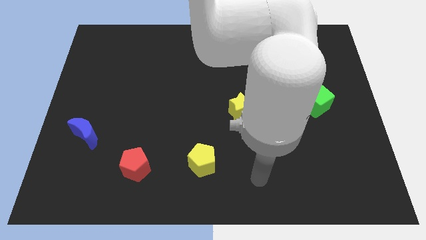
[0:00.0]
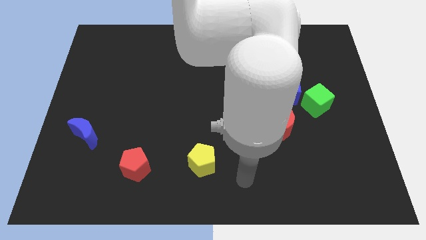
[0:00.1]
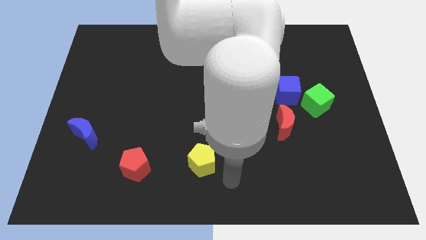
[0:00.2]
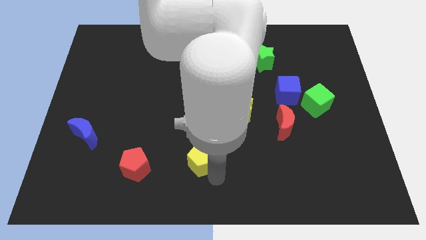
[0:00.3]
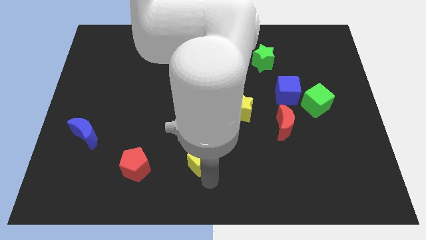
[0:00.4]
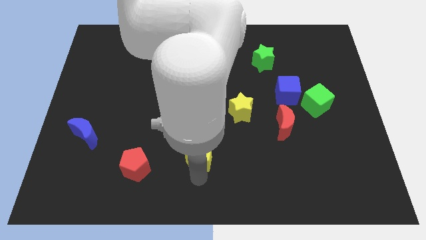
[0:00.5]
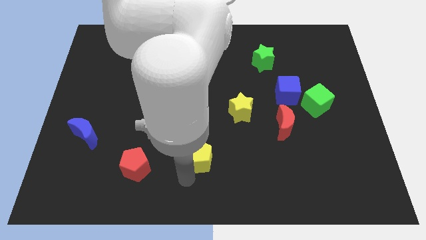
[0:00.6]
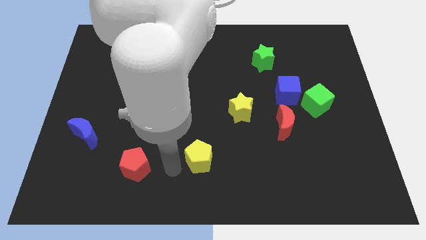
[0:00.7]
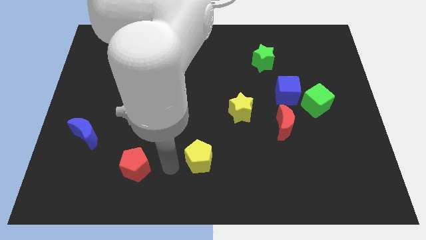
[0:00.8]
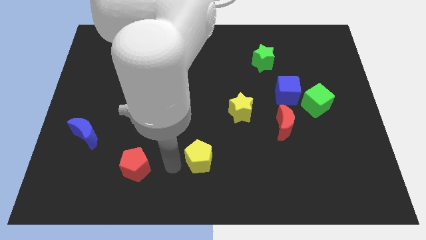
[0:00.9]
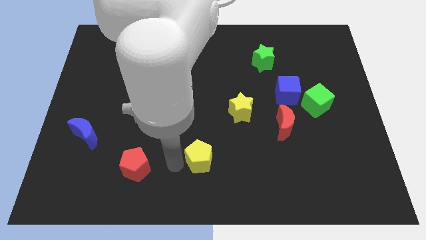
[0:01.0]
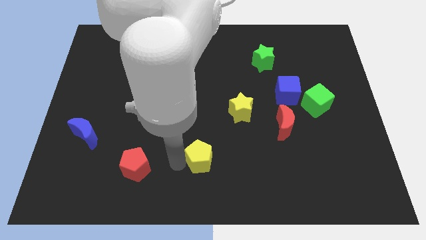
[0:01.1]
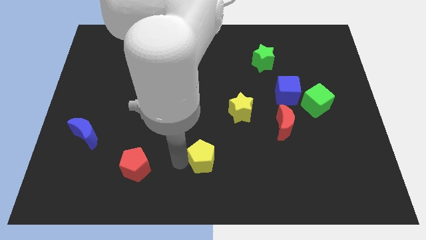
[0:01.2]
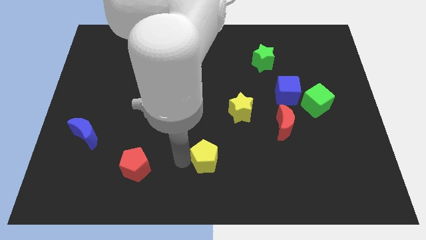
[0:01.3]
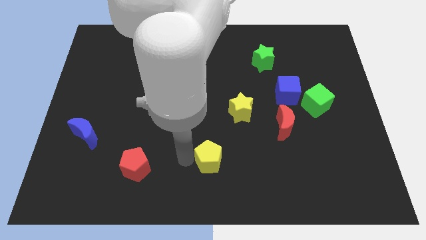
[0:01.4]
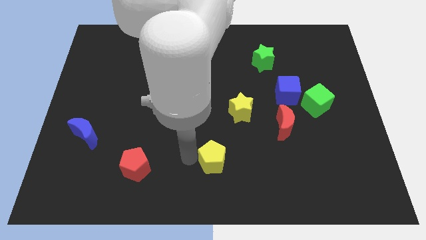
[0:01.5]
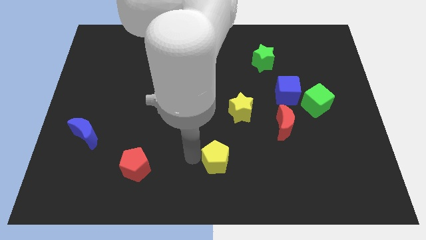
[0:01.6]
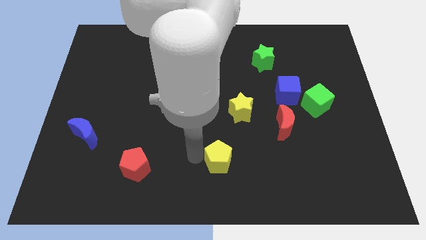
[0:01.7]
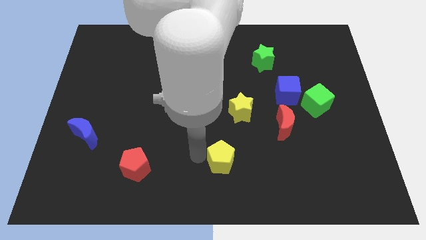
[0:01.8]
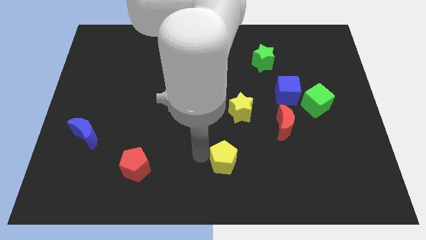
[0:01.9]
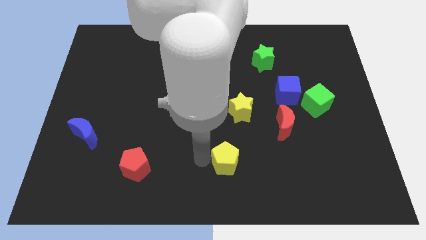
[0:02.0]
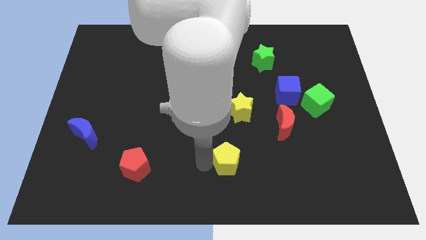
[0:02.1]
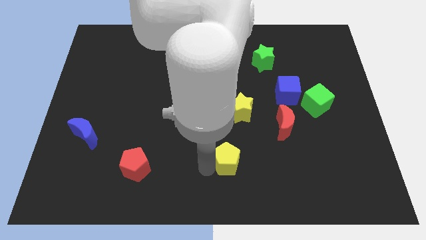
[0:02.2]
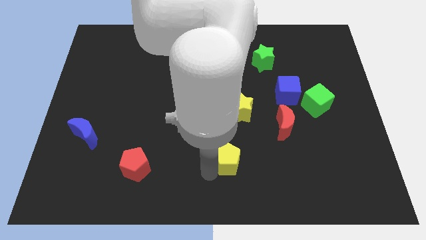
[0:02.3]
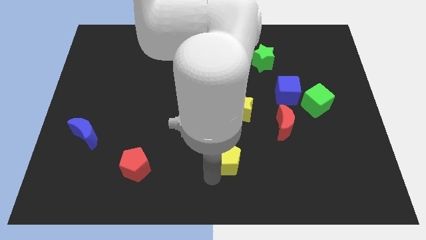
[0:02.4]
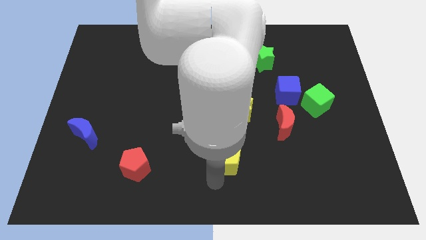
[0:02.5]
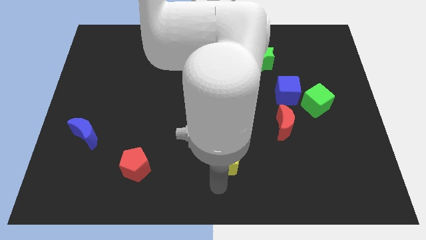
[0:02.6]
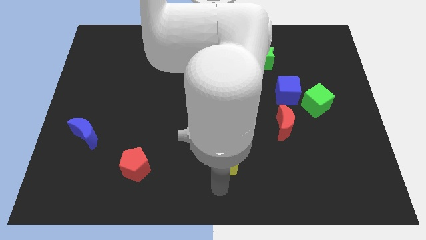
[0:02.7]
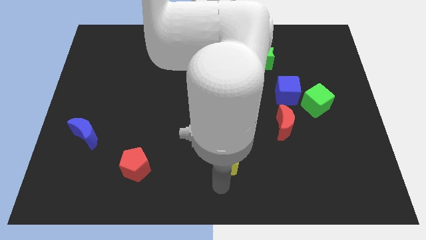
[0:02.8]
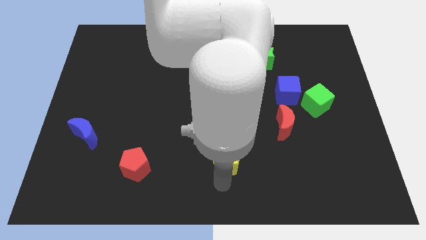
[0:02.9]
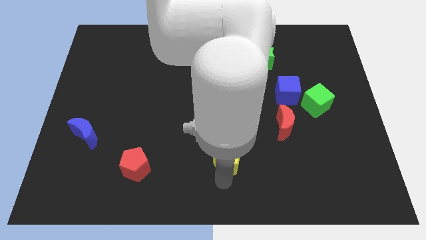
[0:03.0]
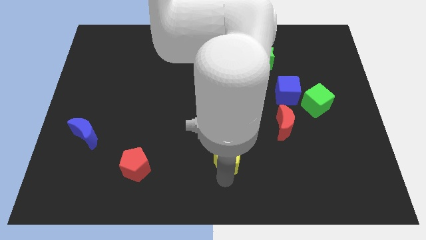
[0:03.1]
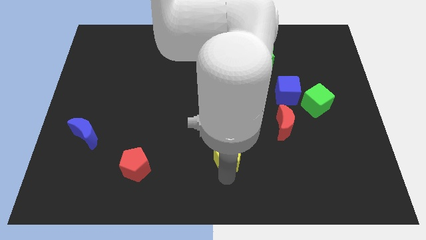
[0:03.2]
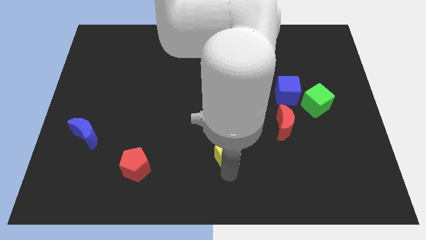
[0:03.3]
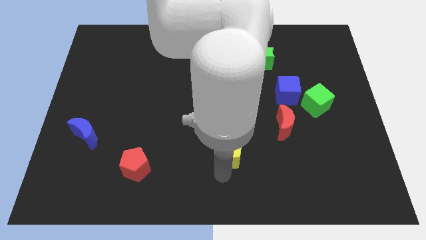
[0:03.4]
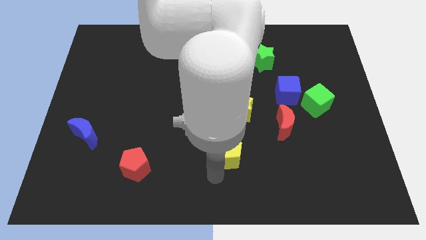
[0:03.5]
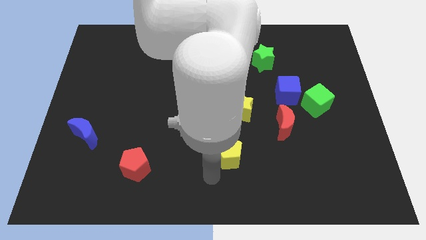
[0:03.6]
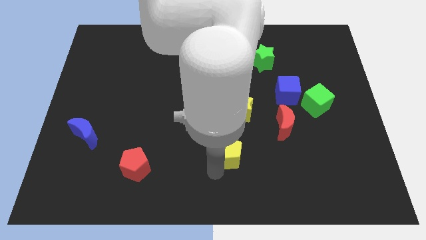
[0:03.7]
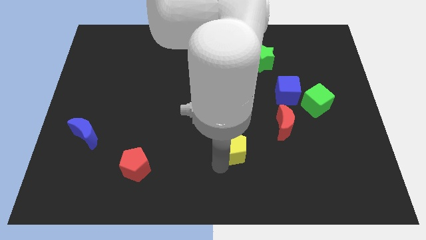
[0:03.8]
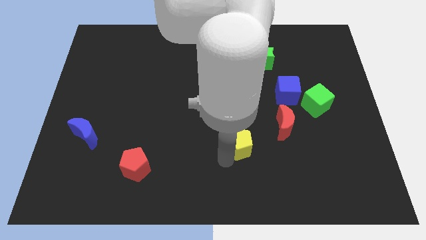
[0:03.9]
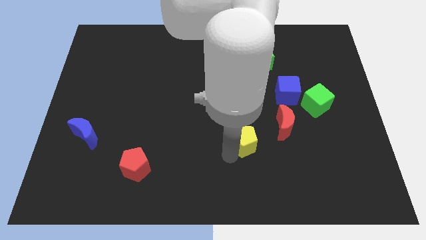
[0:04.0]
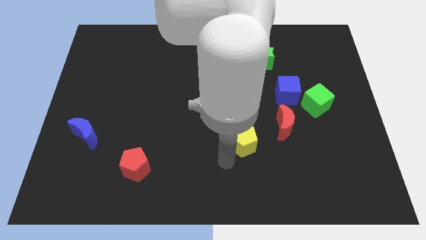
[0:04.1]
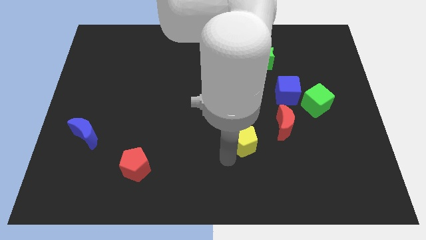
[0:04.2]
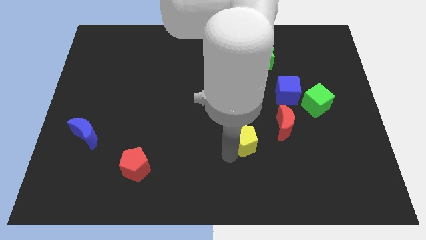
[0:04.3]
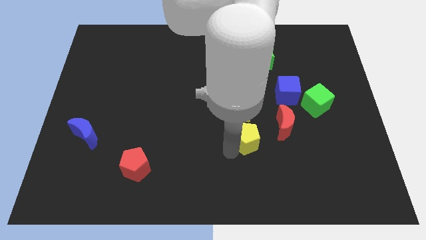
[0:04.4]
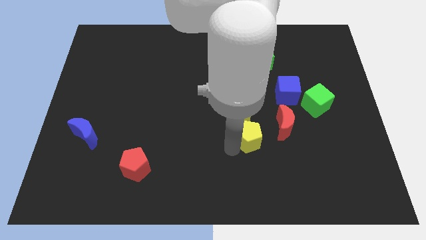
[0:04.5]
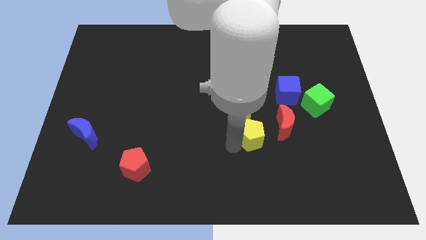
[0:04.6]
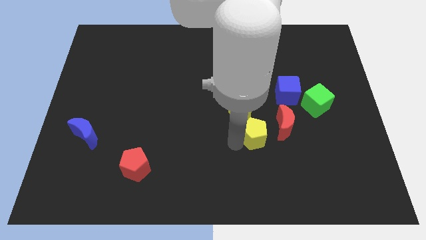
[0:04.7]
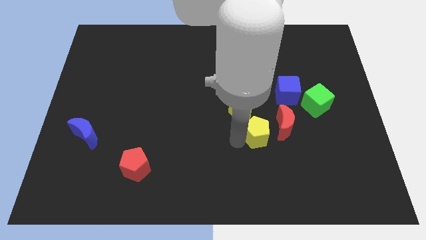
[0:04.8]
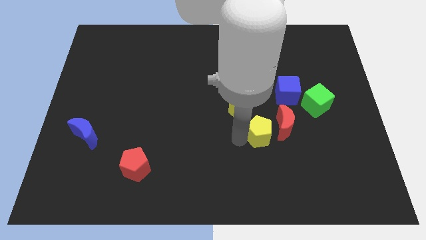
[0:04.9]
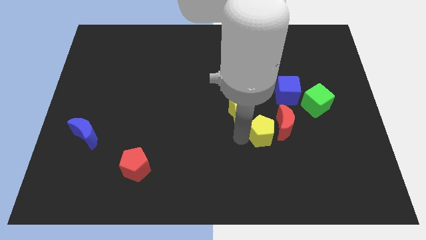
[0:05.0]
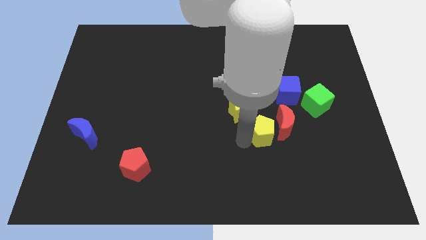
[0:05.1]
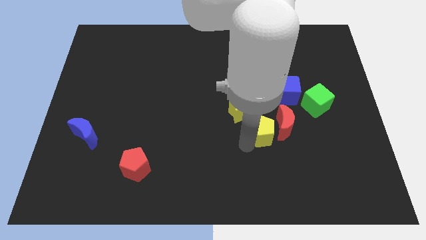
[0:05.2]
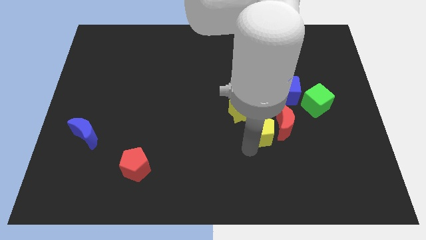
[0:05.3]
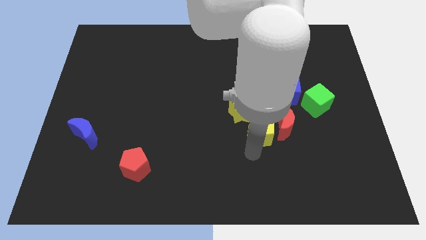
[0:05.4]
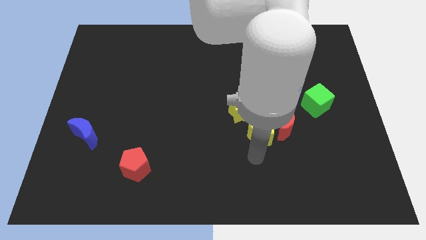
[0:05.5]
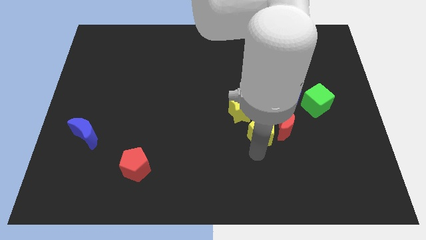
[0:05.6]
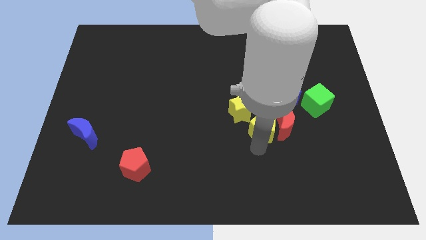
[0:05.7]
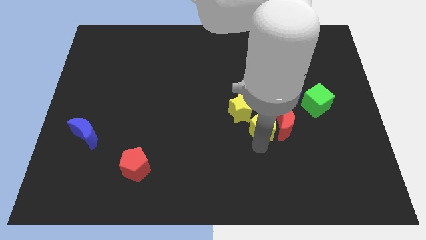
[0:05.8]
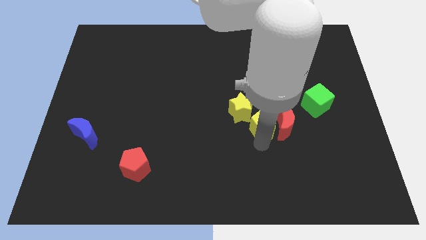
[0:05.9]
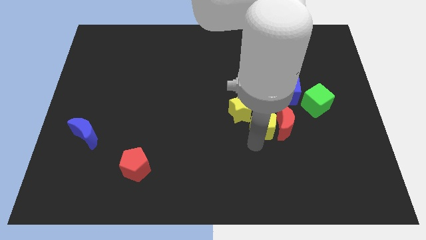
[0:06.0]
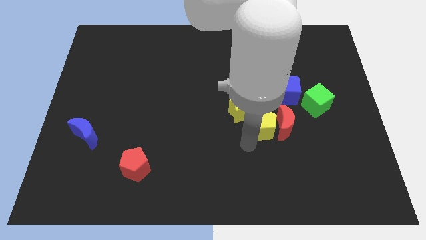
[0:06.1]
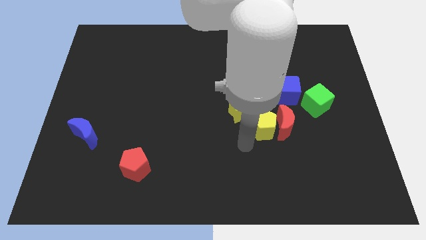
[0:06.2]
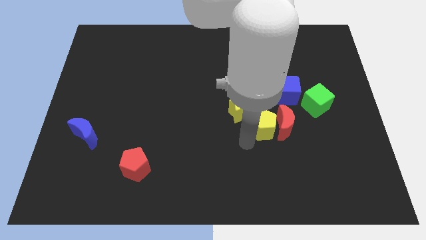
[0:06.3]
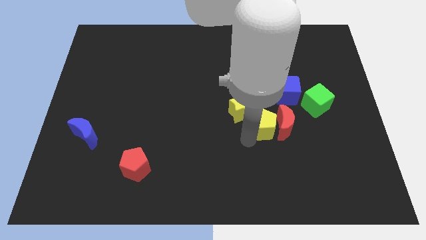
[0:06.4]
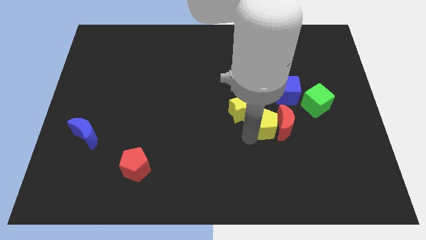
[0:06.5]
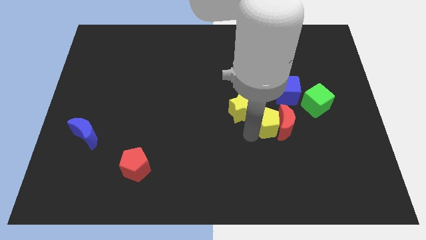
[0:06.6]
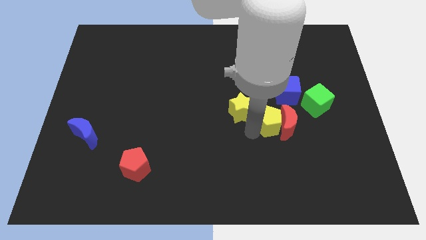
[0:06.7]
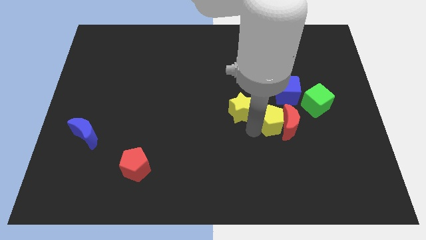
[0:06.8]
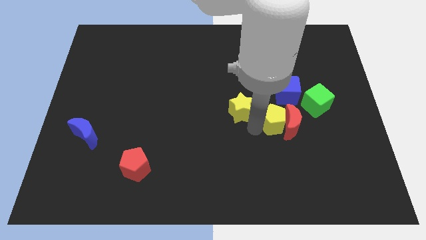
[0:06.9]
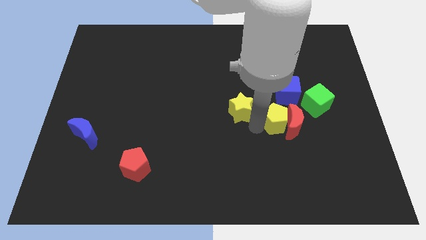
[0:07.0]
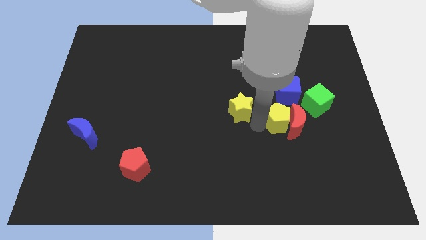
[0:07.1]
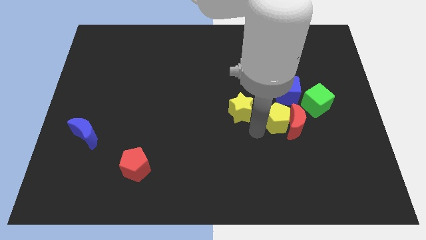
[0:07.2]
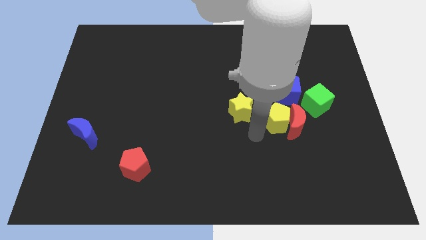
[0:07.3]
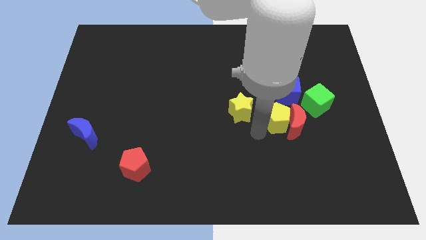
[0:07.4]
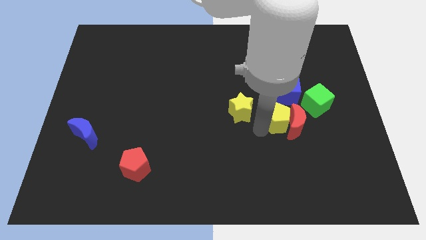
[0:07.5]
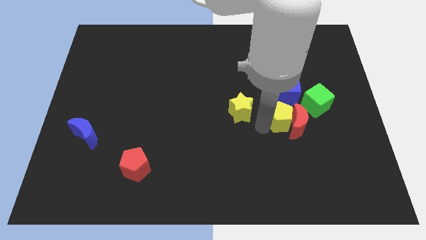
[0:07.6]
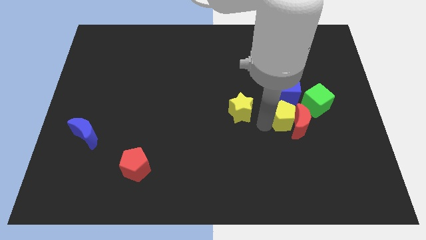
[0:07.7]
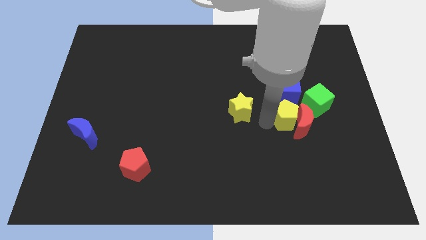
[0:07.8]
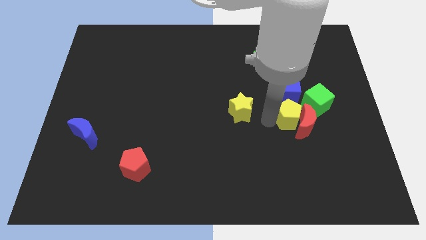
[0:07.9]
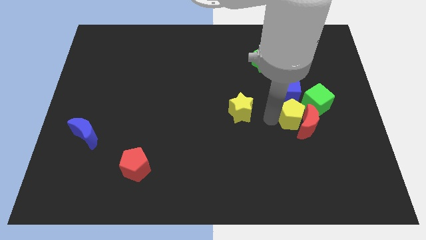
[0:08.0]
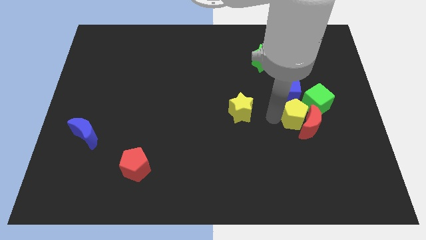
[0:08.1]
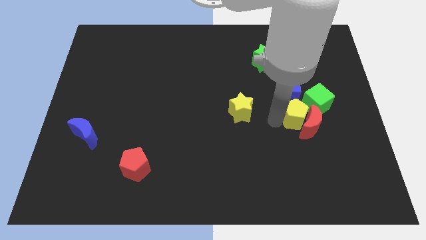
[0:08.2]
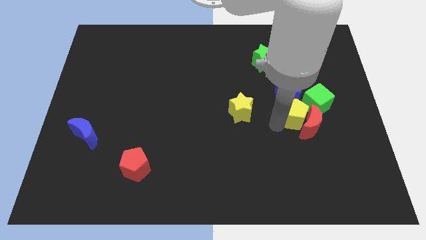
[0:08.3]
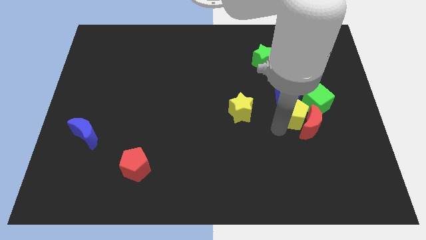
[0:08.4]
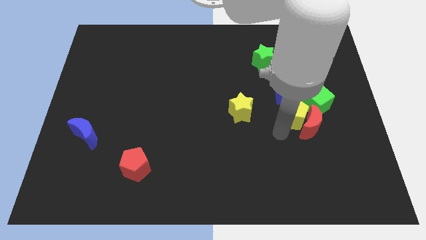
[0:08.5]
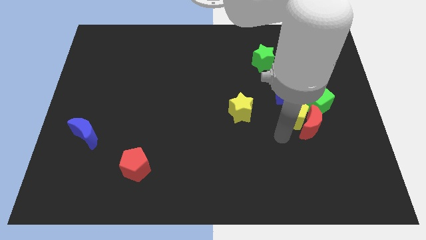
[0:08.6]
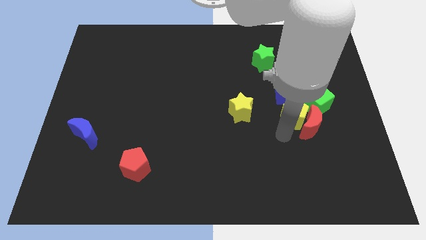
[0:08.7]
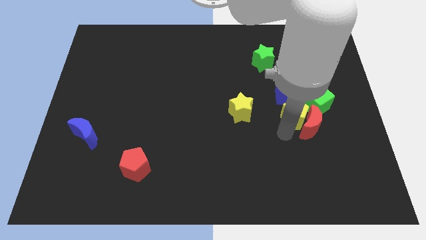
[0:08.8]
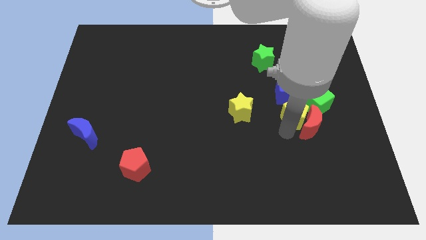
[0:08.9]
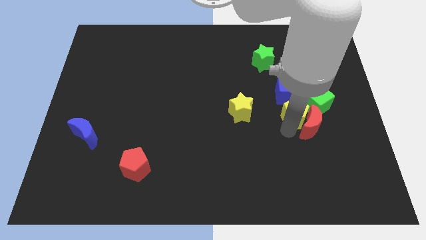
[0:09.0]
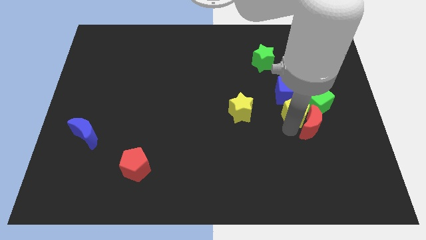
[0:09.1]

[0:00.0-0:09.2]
slide the yellow pentagon next to the green cube
